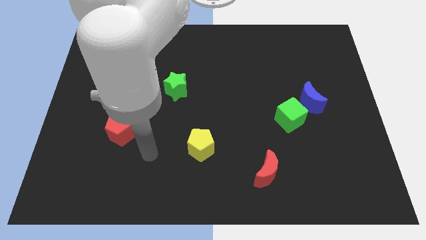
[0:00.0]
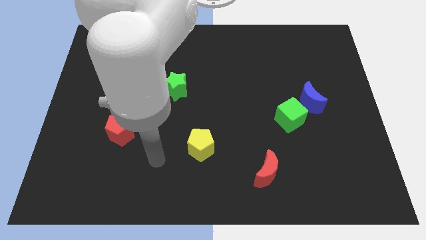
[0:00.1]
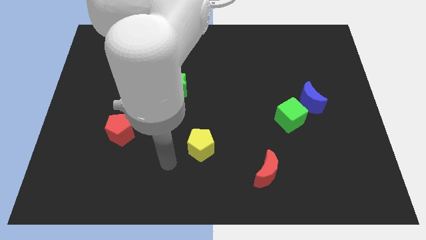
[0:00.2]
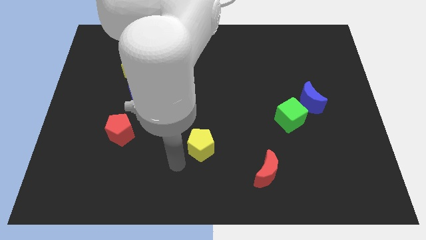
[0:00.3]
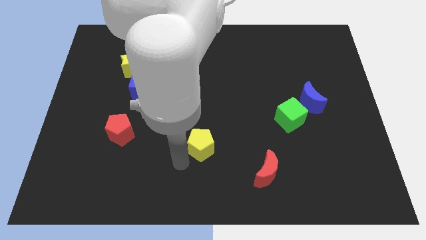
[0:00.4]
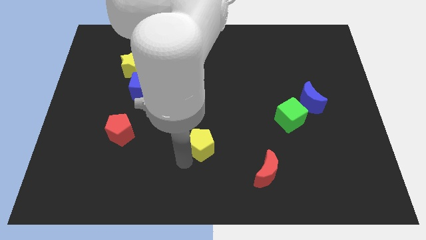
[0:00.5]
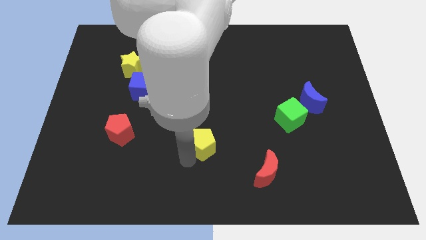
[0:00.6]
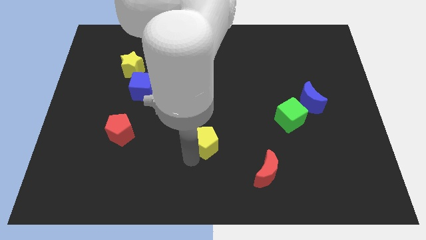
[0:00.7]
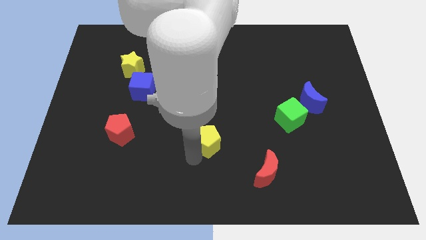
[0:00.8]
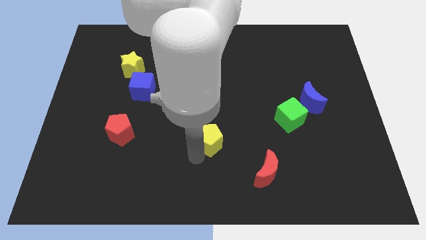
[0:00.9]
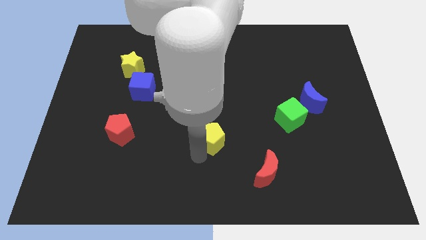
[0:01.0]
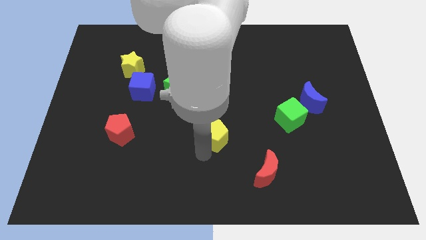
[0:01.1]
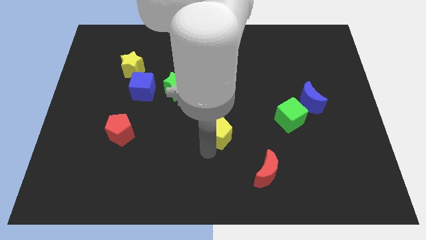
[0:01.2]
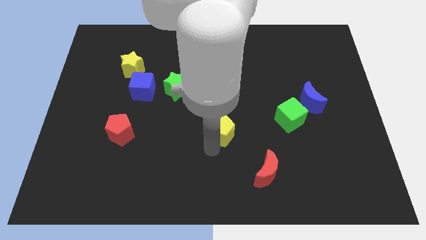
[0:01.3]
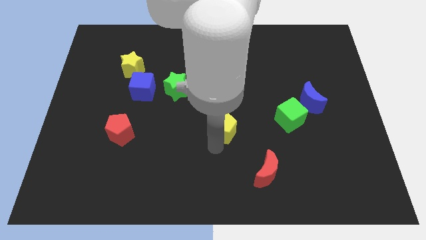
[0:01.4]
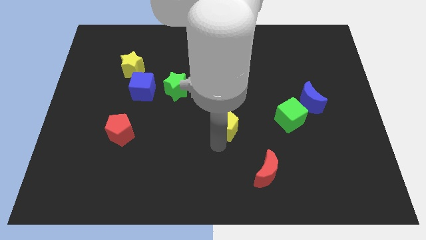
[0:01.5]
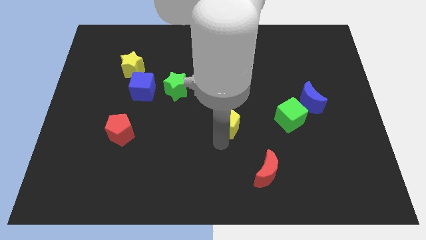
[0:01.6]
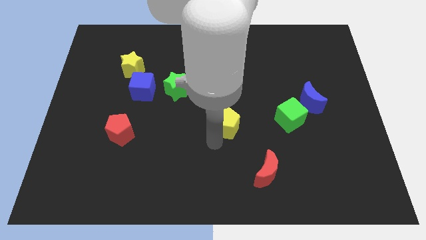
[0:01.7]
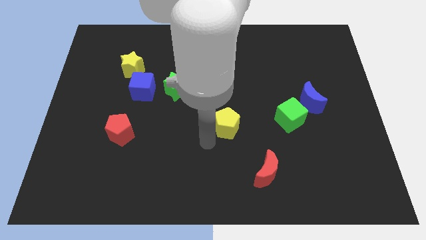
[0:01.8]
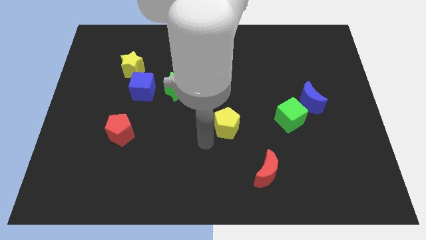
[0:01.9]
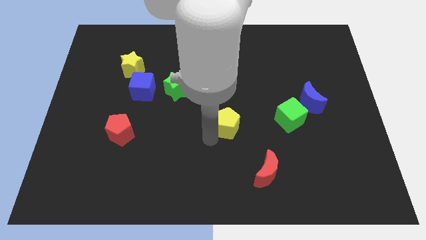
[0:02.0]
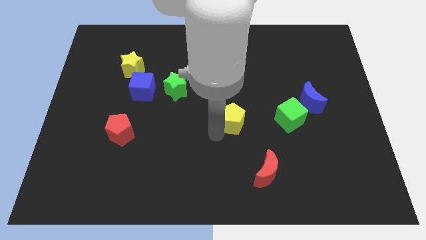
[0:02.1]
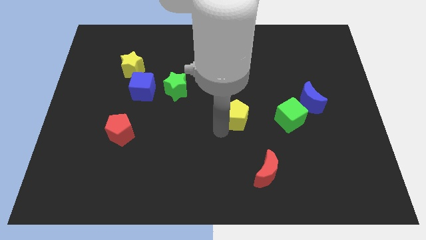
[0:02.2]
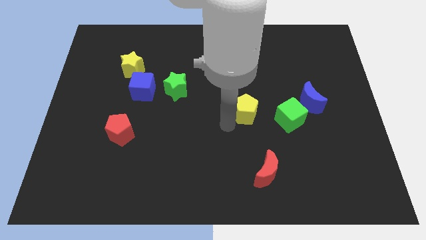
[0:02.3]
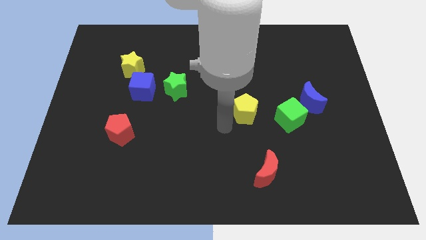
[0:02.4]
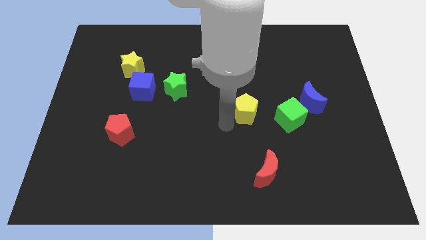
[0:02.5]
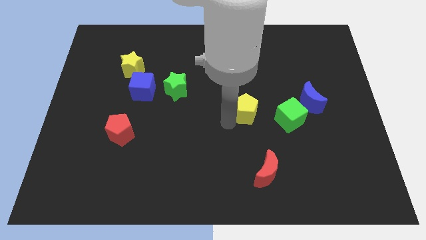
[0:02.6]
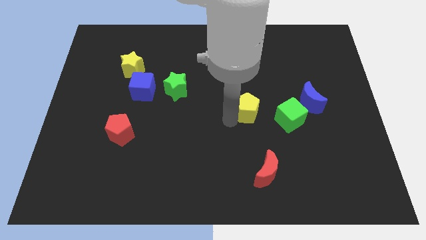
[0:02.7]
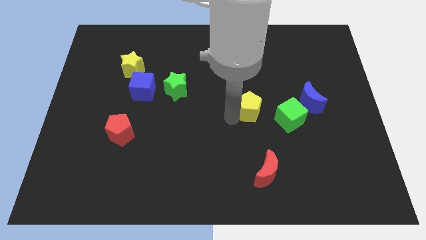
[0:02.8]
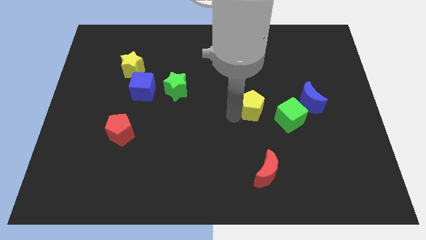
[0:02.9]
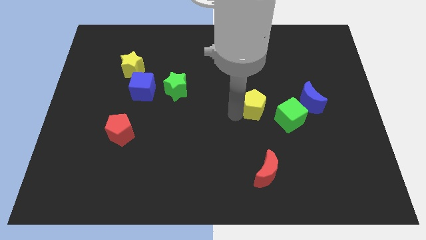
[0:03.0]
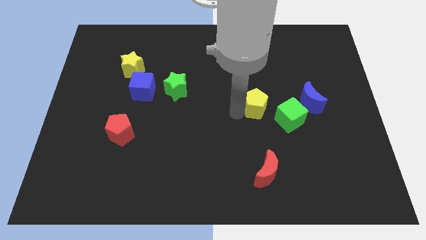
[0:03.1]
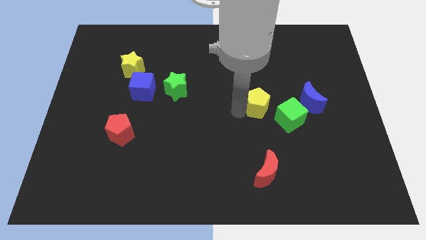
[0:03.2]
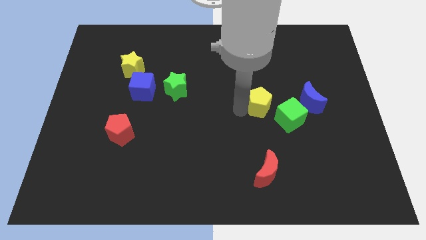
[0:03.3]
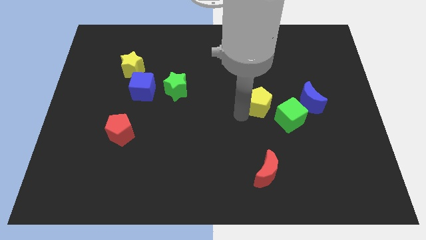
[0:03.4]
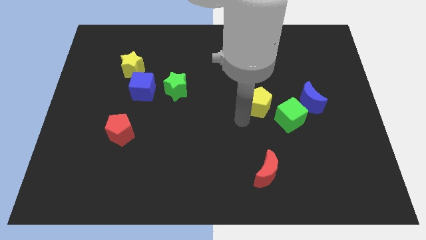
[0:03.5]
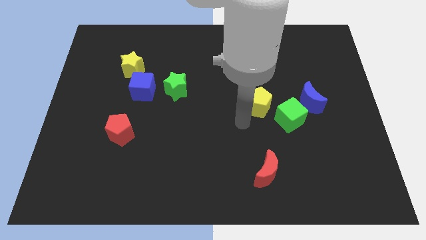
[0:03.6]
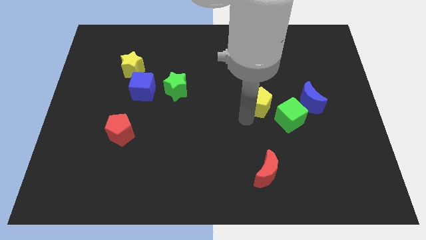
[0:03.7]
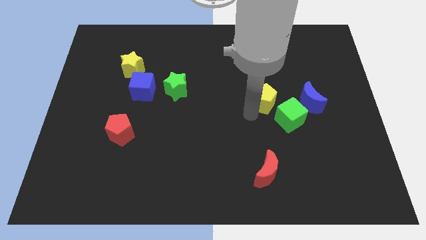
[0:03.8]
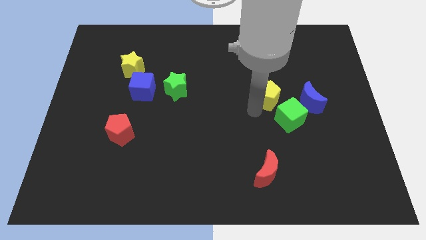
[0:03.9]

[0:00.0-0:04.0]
push the yellow pentagon up and to the right

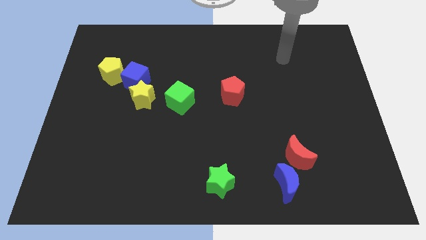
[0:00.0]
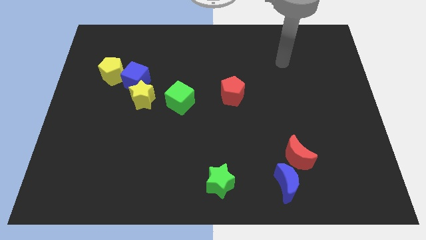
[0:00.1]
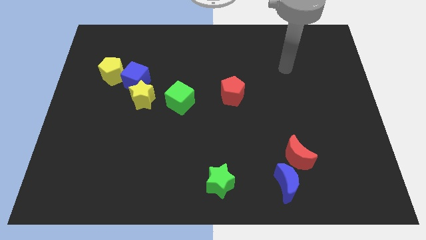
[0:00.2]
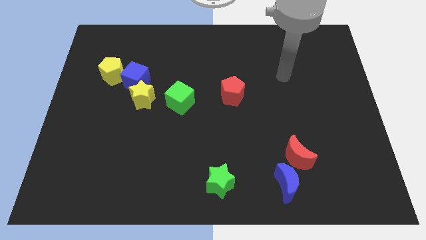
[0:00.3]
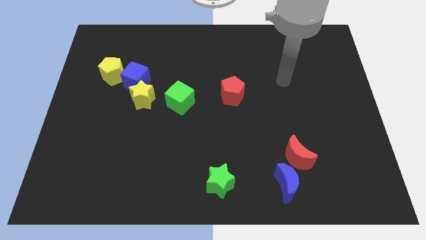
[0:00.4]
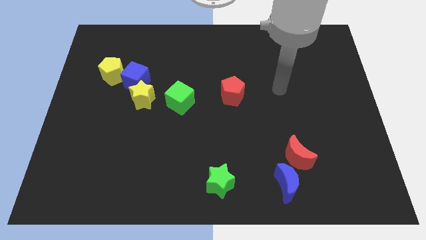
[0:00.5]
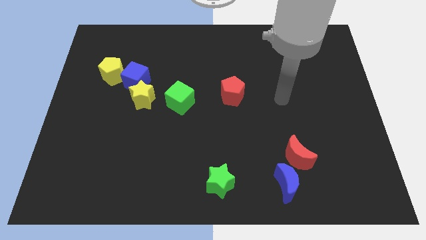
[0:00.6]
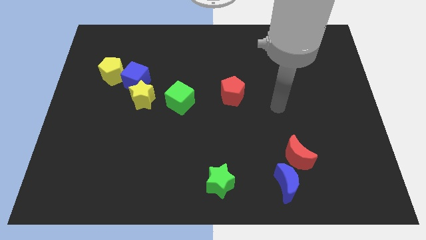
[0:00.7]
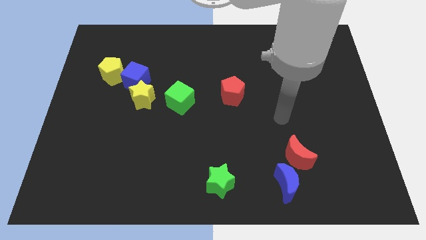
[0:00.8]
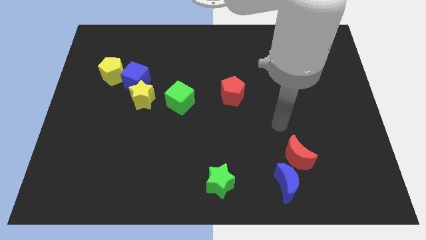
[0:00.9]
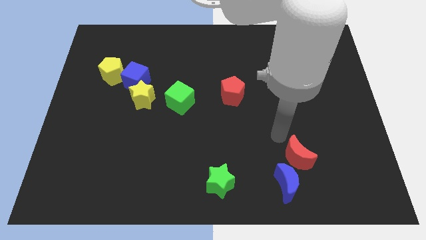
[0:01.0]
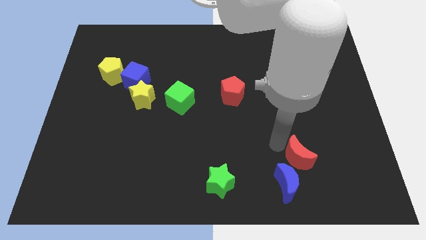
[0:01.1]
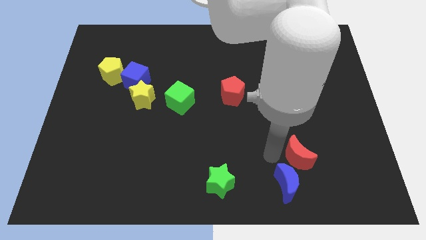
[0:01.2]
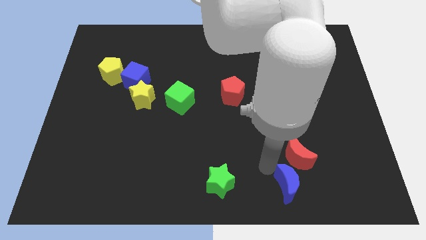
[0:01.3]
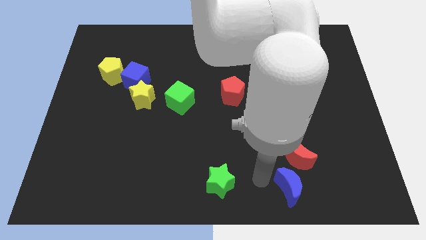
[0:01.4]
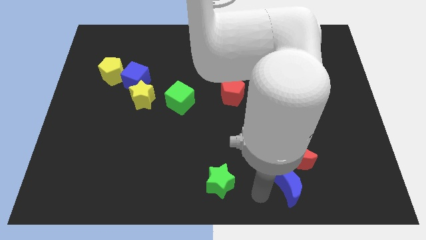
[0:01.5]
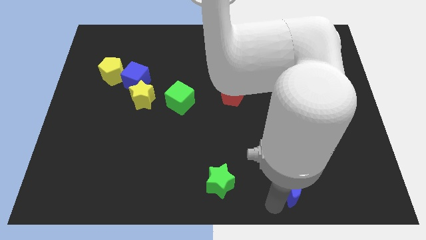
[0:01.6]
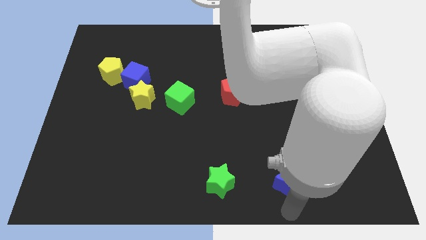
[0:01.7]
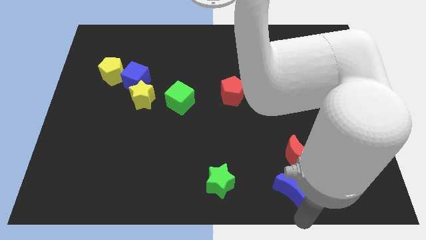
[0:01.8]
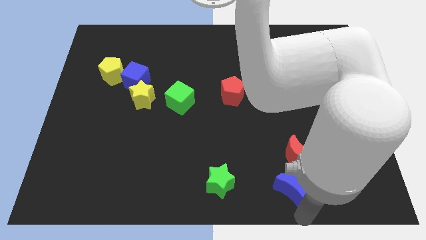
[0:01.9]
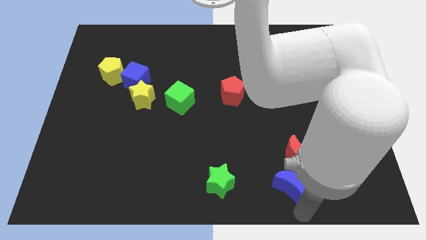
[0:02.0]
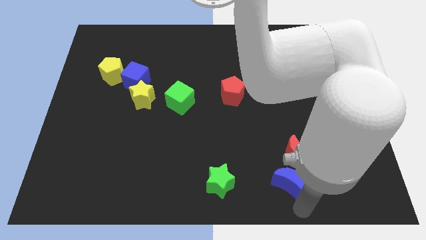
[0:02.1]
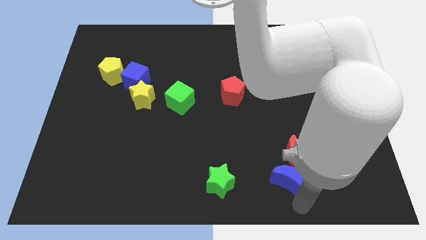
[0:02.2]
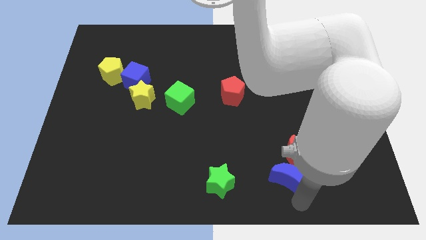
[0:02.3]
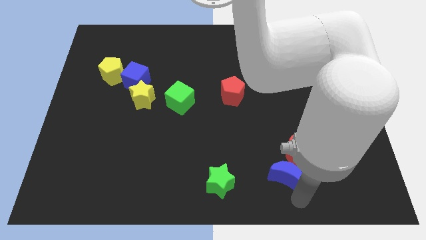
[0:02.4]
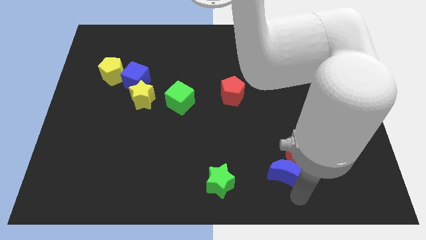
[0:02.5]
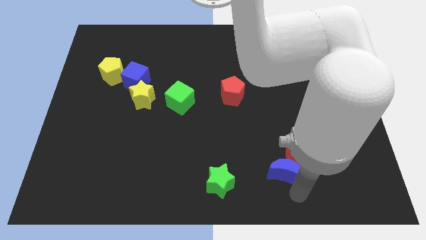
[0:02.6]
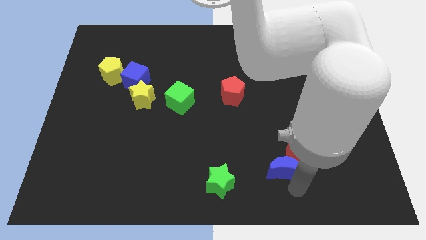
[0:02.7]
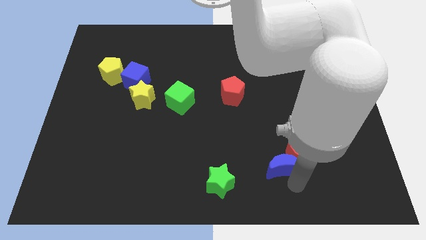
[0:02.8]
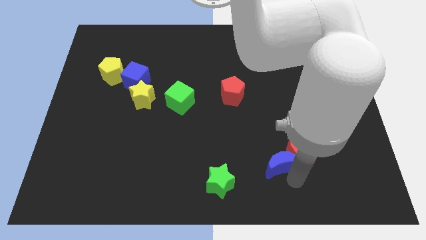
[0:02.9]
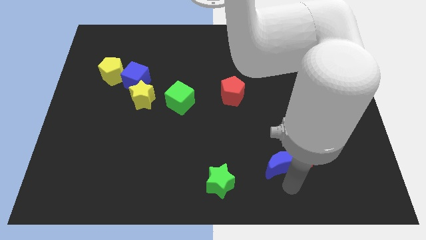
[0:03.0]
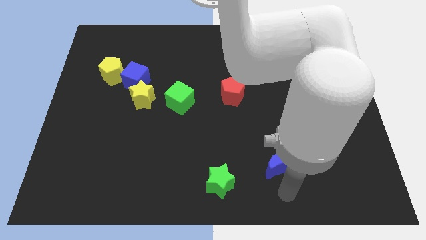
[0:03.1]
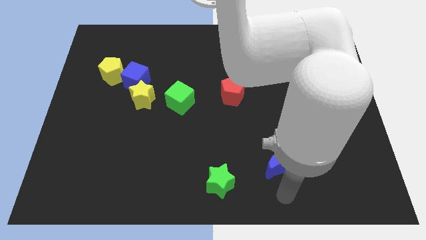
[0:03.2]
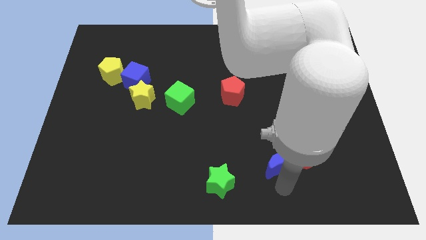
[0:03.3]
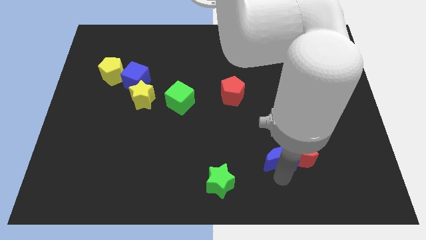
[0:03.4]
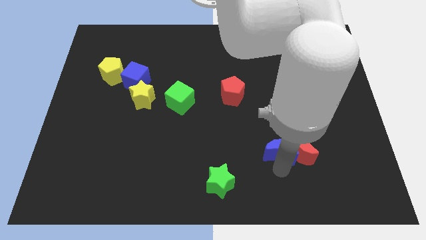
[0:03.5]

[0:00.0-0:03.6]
slide the blue moon slightly up

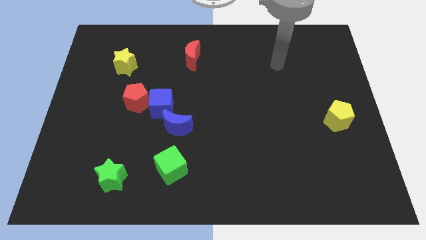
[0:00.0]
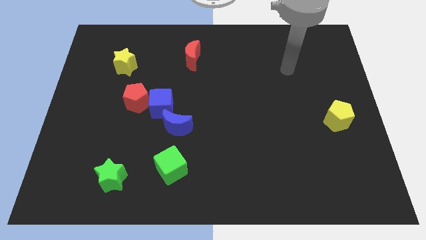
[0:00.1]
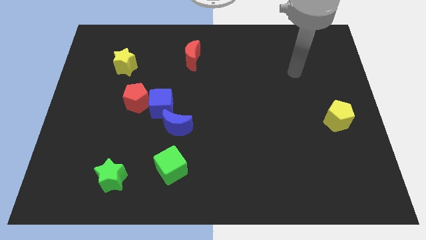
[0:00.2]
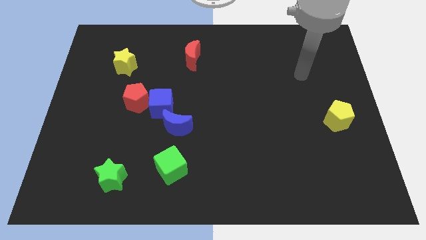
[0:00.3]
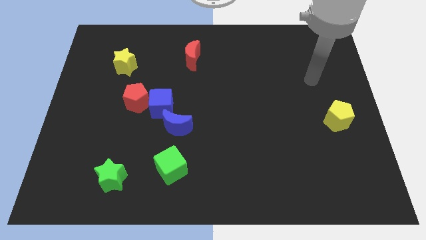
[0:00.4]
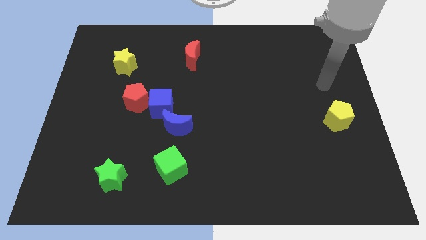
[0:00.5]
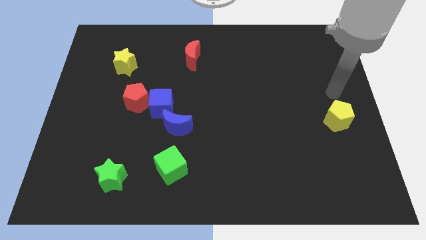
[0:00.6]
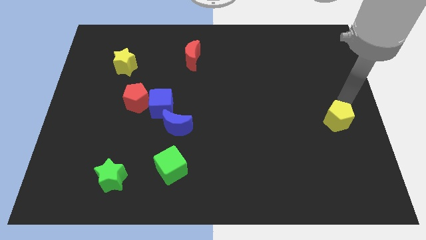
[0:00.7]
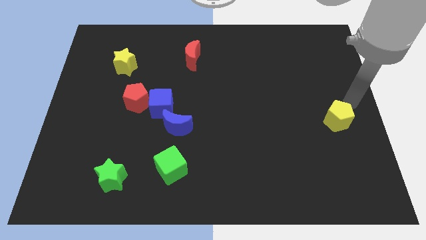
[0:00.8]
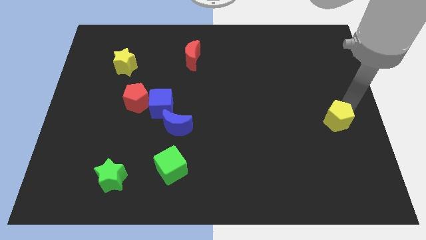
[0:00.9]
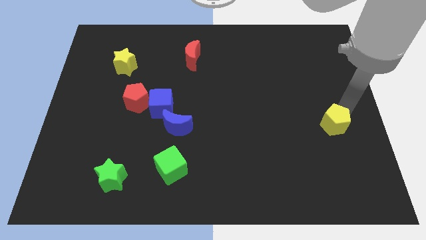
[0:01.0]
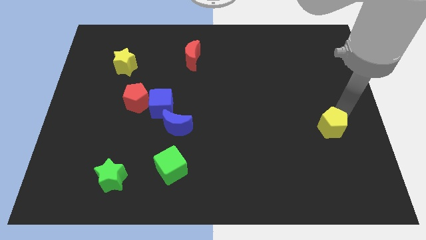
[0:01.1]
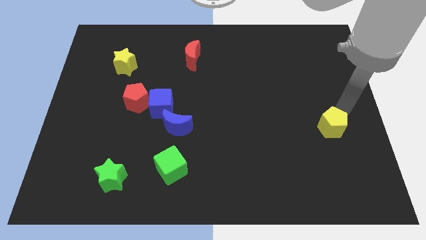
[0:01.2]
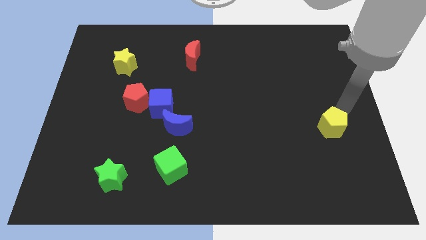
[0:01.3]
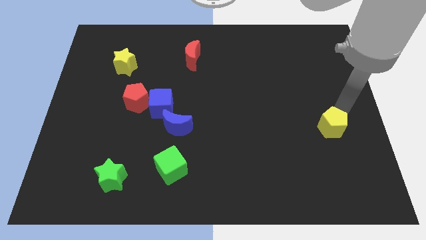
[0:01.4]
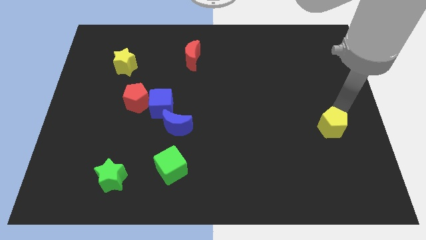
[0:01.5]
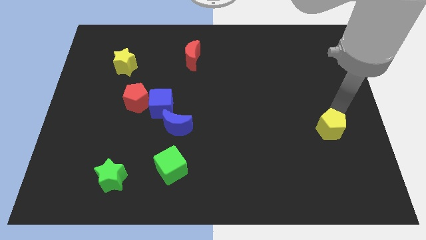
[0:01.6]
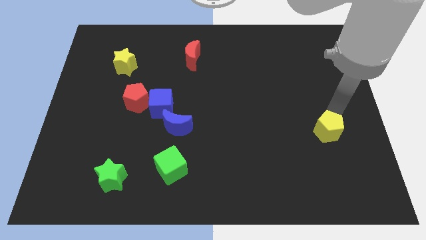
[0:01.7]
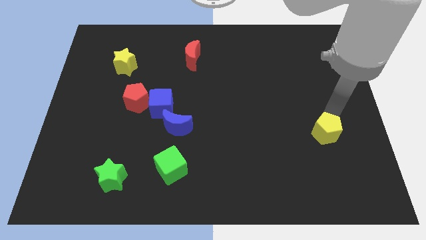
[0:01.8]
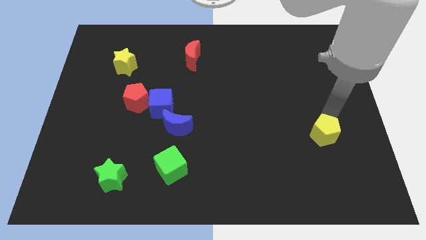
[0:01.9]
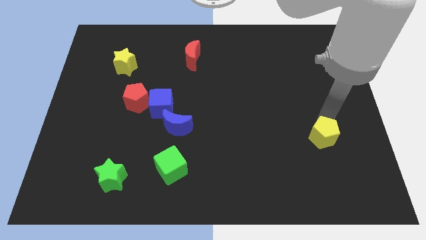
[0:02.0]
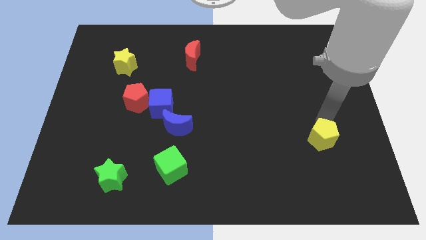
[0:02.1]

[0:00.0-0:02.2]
slightly push the yellow pentagon down and then to the left
